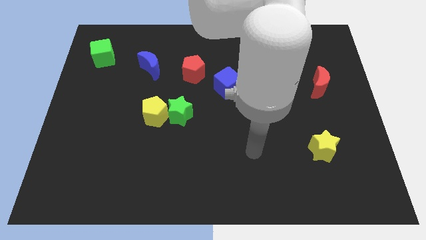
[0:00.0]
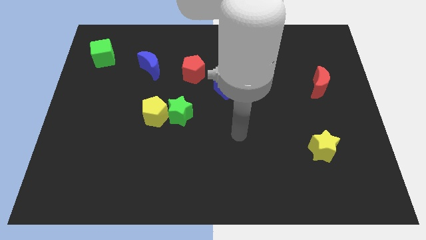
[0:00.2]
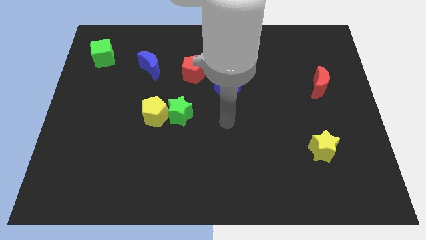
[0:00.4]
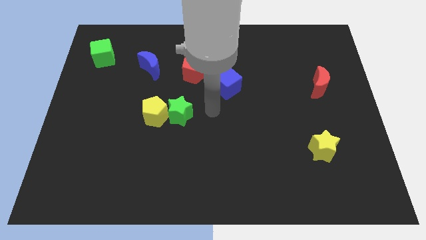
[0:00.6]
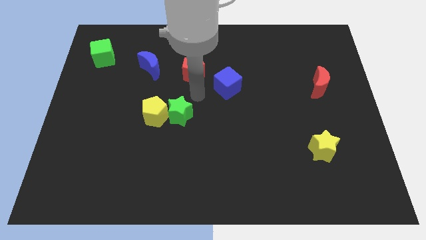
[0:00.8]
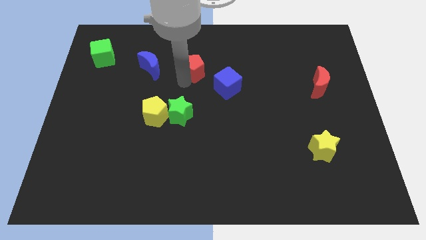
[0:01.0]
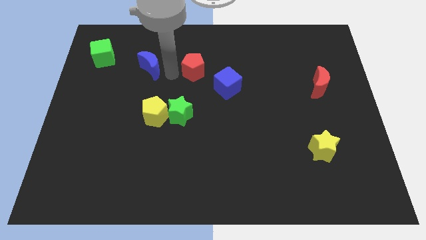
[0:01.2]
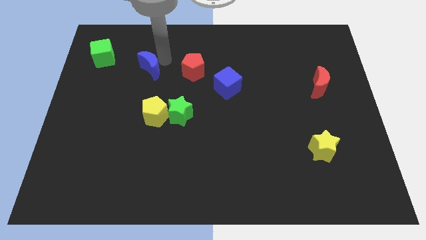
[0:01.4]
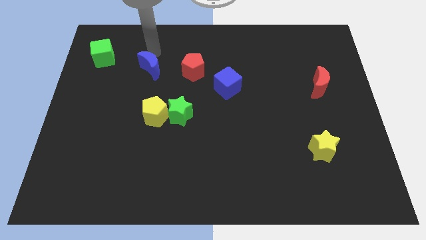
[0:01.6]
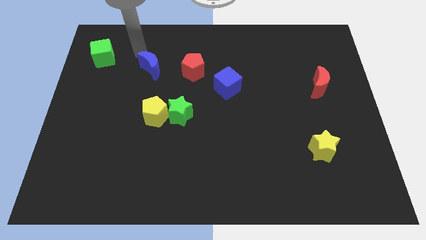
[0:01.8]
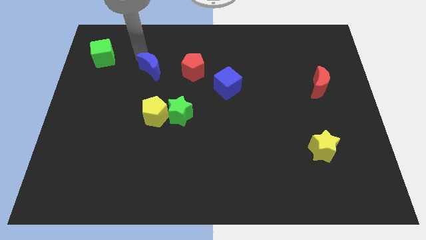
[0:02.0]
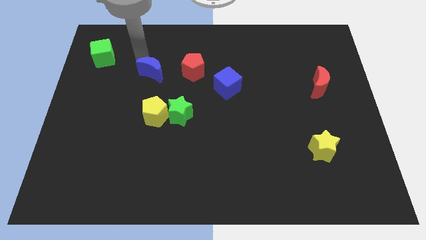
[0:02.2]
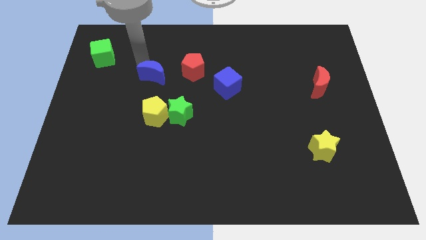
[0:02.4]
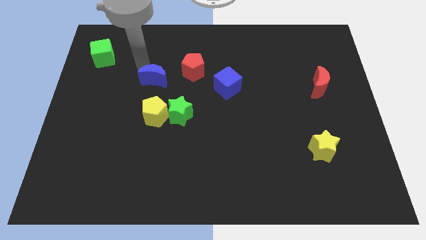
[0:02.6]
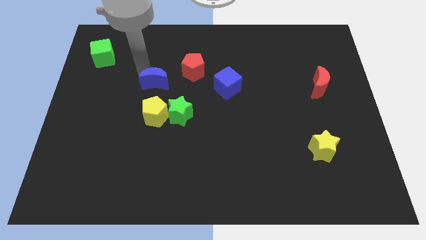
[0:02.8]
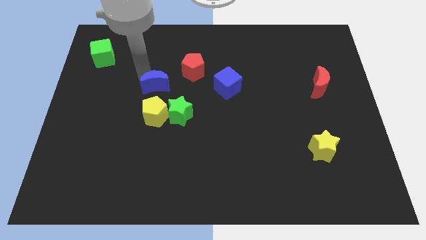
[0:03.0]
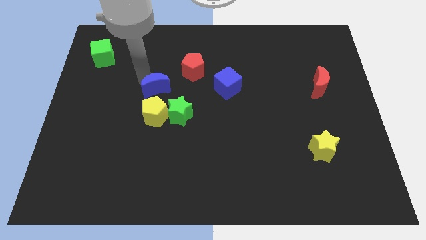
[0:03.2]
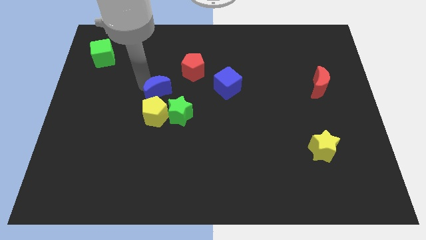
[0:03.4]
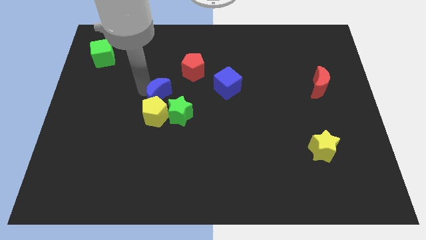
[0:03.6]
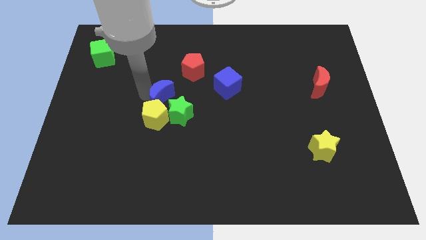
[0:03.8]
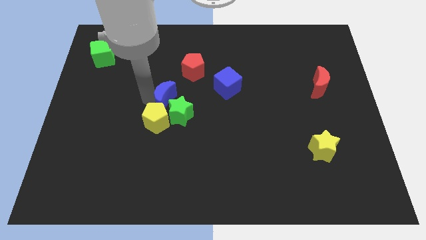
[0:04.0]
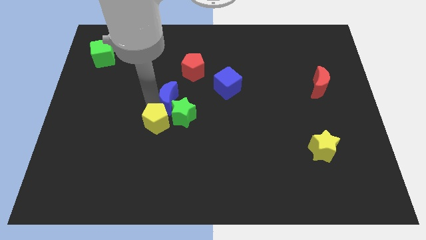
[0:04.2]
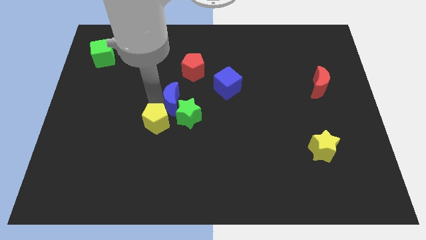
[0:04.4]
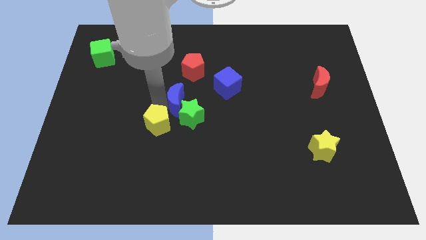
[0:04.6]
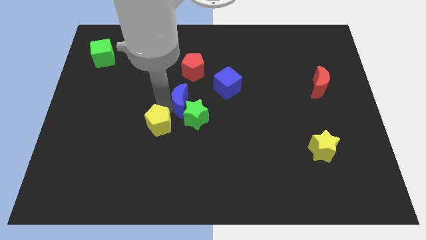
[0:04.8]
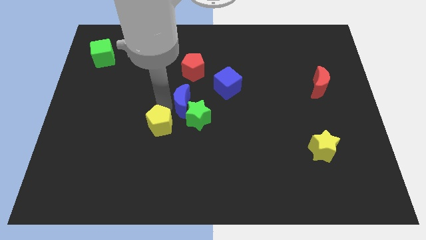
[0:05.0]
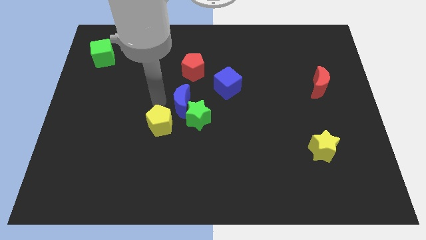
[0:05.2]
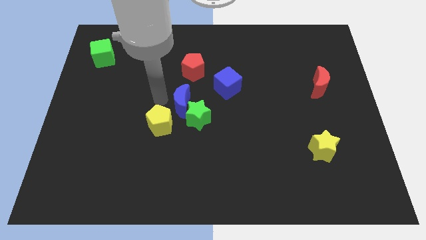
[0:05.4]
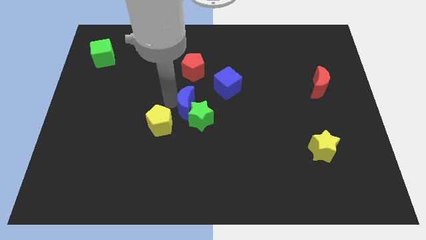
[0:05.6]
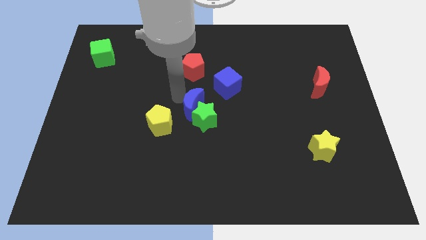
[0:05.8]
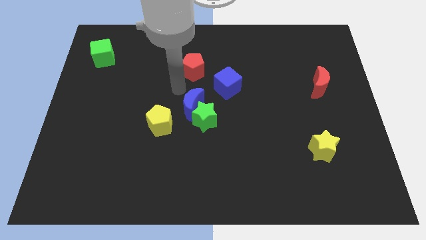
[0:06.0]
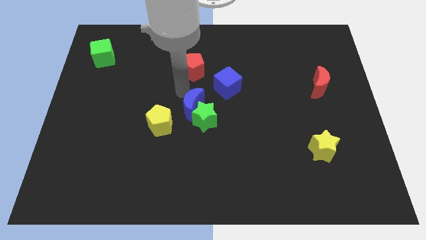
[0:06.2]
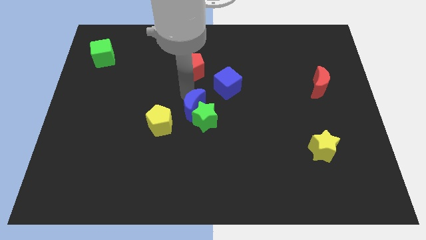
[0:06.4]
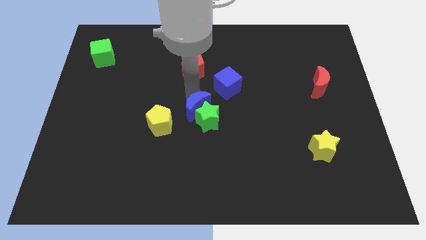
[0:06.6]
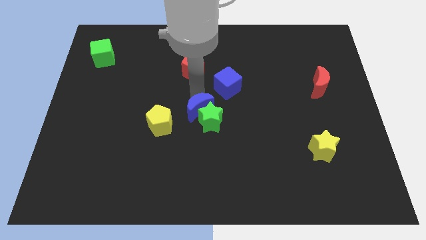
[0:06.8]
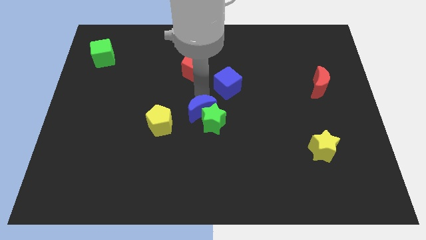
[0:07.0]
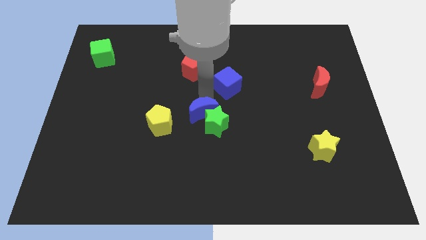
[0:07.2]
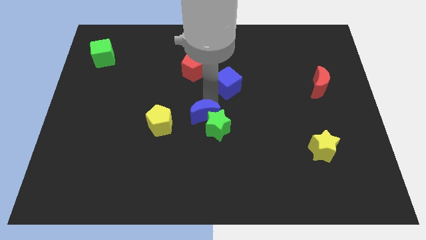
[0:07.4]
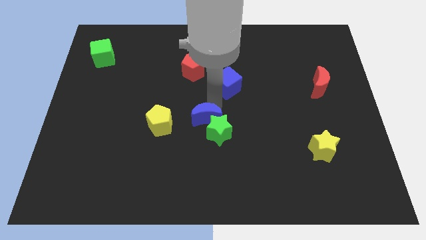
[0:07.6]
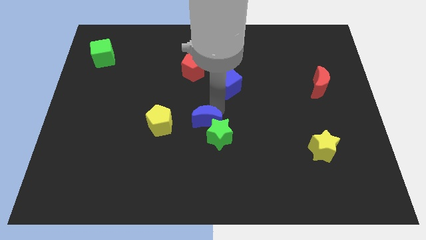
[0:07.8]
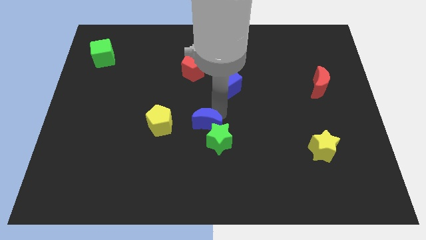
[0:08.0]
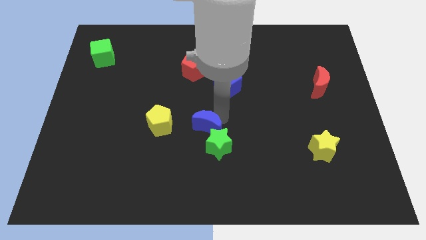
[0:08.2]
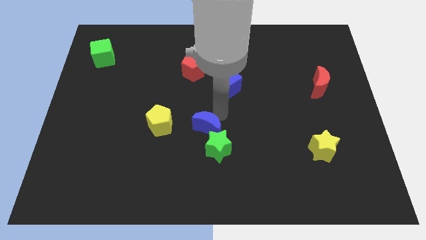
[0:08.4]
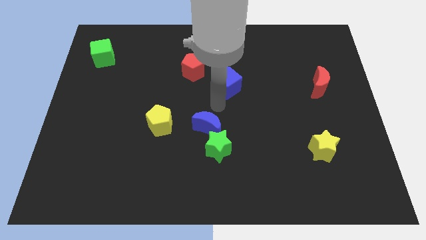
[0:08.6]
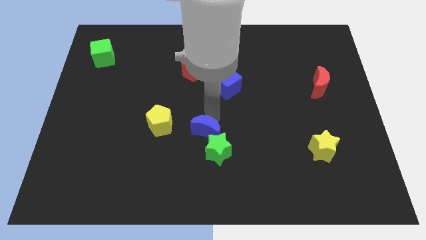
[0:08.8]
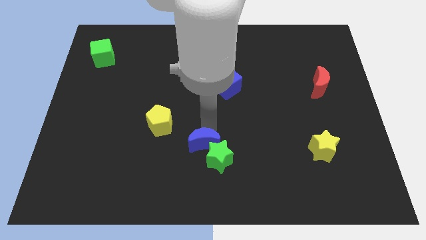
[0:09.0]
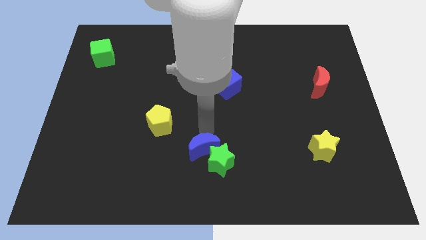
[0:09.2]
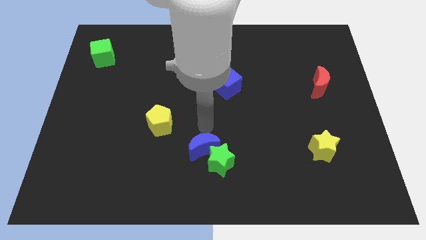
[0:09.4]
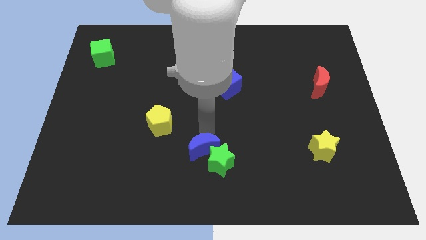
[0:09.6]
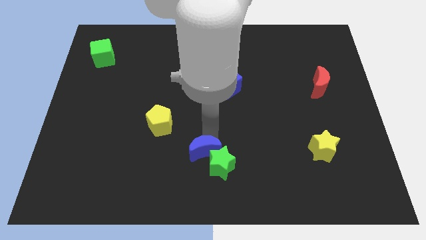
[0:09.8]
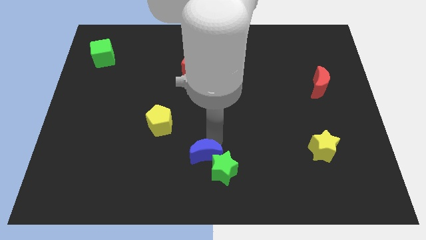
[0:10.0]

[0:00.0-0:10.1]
push the blue moon to the bottom

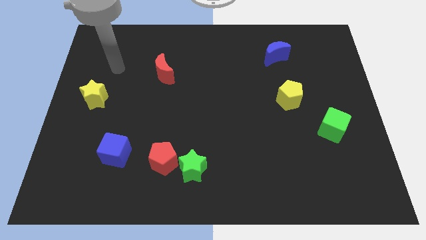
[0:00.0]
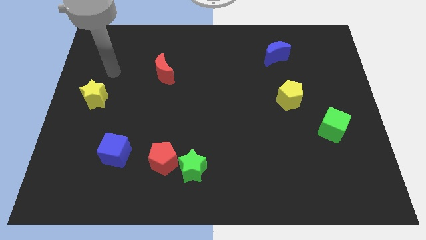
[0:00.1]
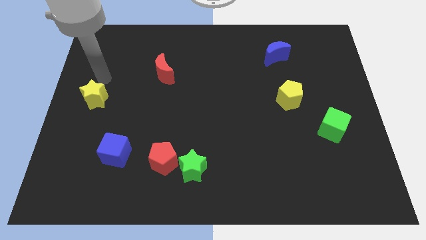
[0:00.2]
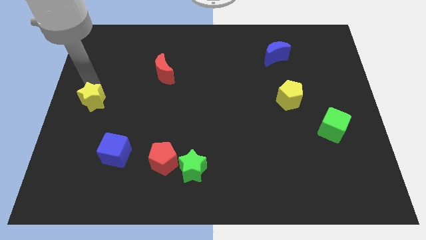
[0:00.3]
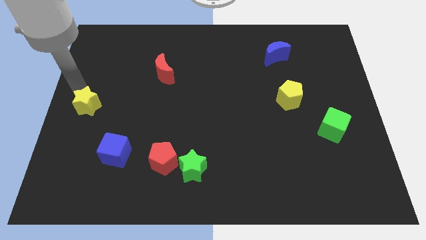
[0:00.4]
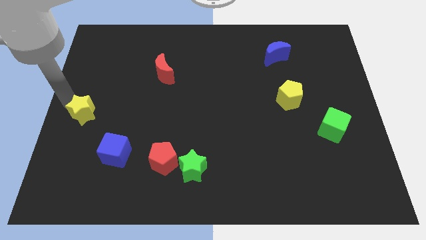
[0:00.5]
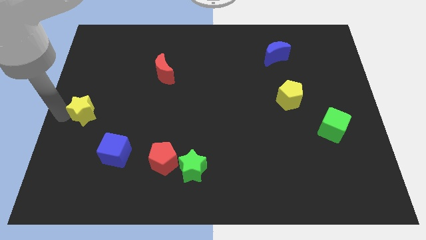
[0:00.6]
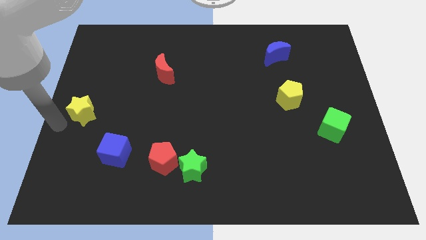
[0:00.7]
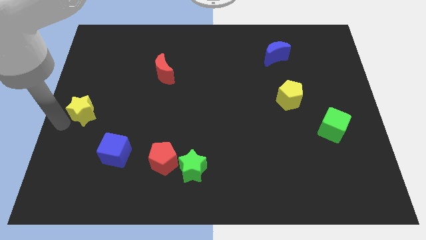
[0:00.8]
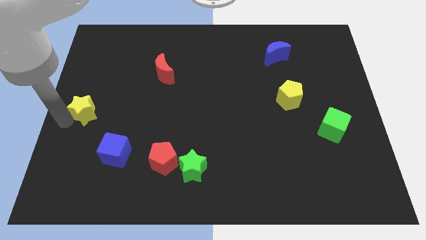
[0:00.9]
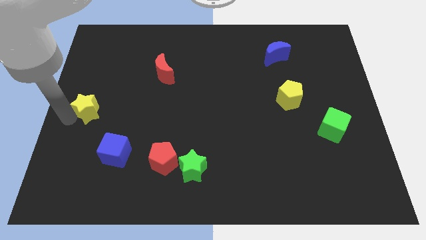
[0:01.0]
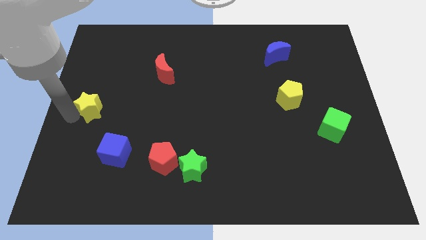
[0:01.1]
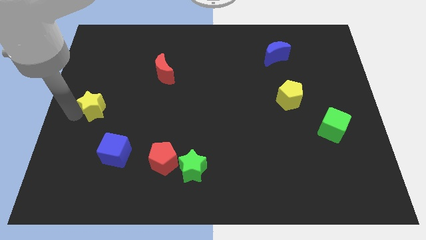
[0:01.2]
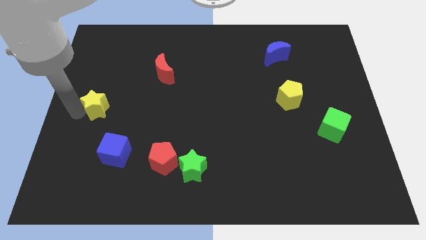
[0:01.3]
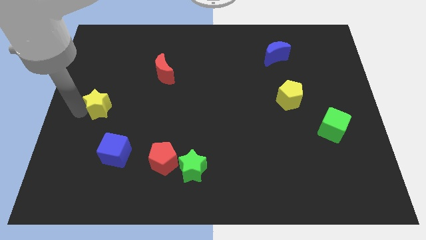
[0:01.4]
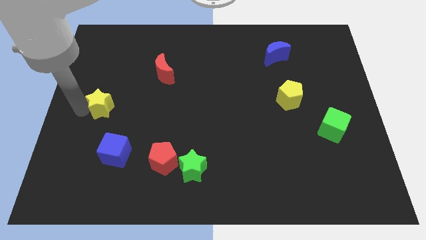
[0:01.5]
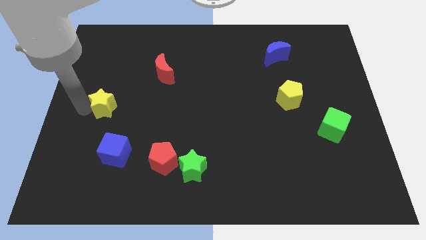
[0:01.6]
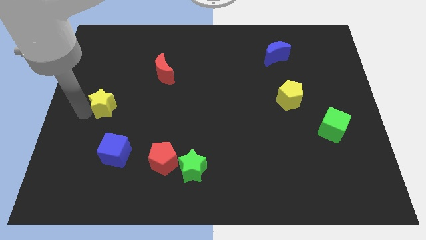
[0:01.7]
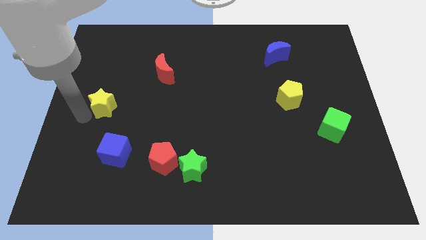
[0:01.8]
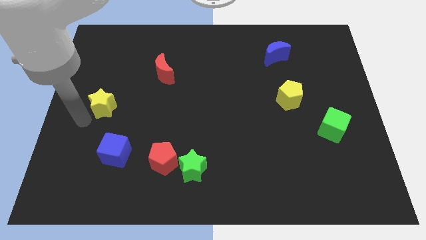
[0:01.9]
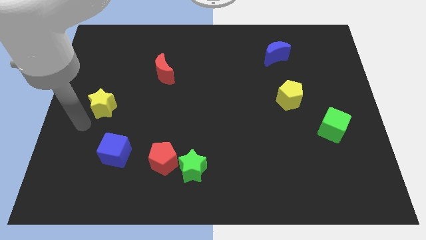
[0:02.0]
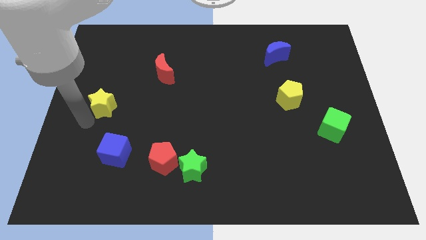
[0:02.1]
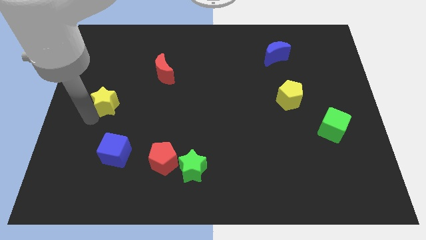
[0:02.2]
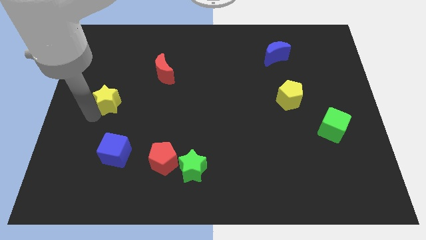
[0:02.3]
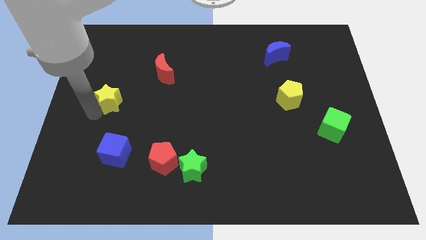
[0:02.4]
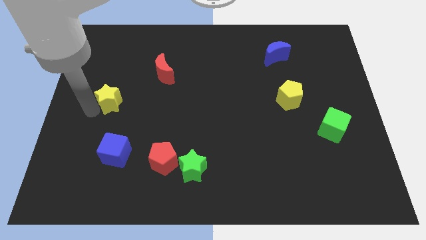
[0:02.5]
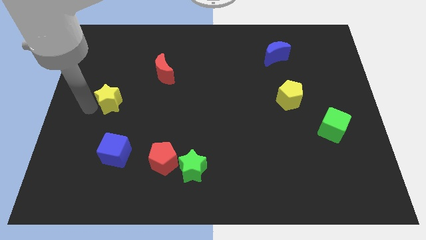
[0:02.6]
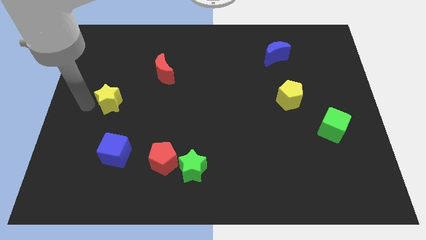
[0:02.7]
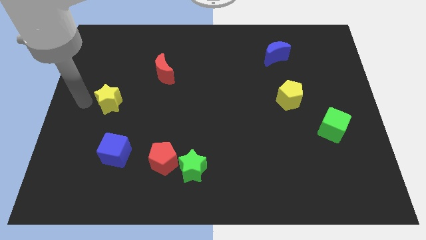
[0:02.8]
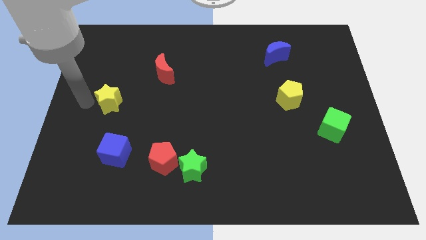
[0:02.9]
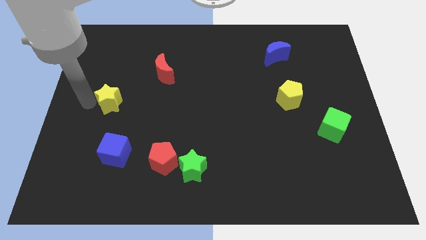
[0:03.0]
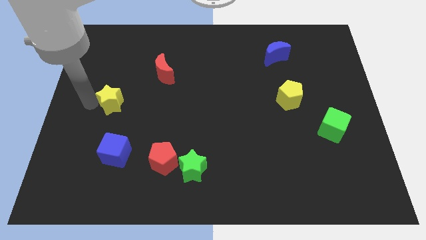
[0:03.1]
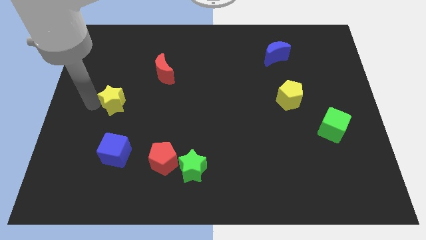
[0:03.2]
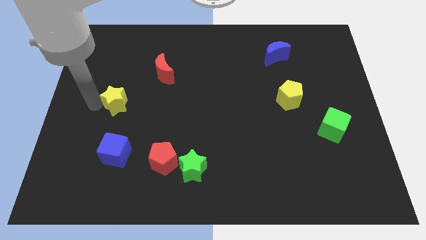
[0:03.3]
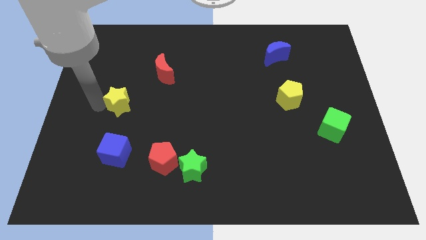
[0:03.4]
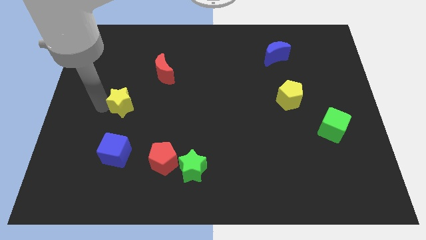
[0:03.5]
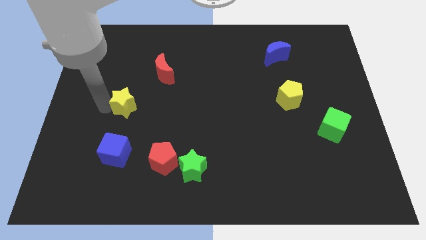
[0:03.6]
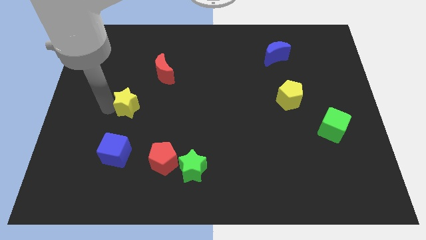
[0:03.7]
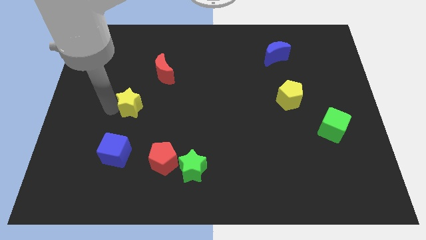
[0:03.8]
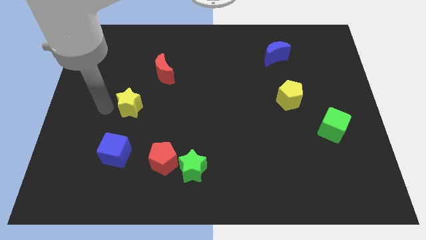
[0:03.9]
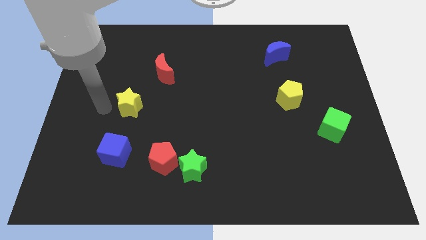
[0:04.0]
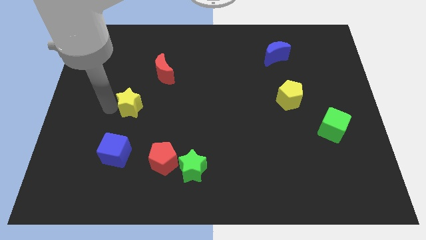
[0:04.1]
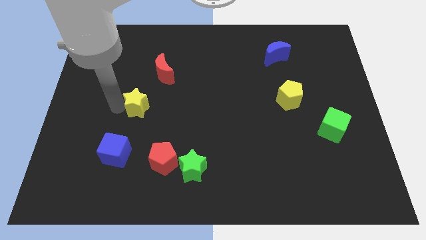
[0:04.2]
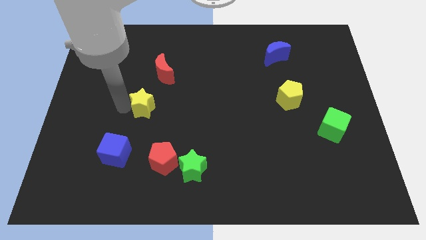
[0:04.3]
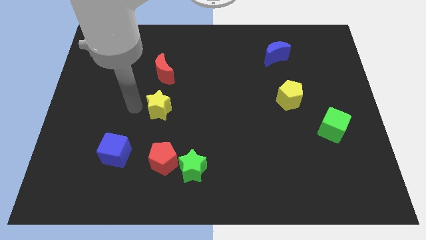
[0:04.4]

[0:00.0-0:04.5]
move the yellow star to the center
